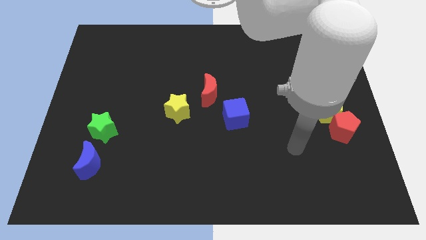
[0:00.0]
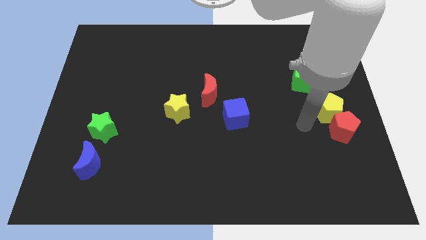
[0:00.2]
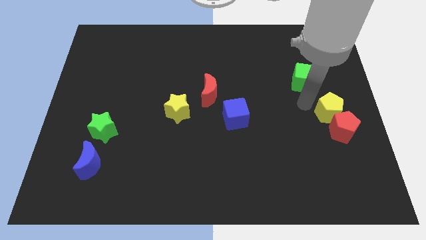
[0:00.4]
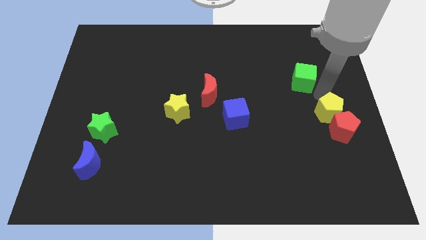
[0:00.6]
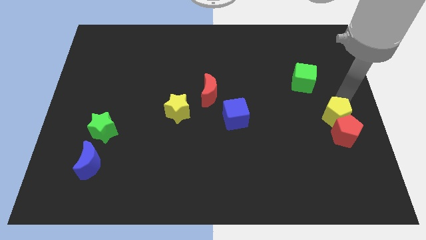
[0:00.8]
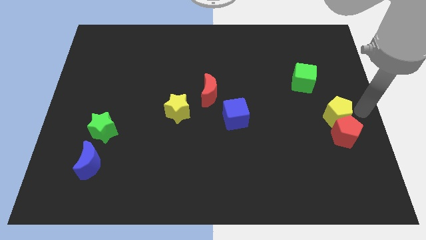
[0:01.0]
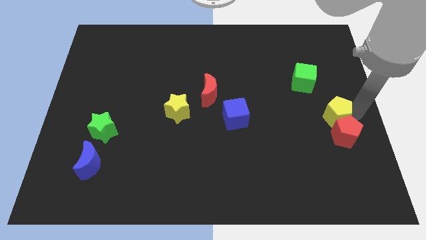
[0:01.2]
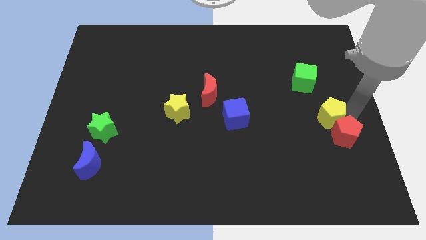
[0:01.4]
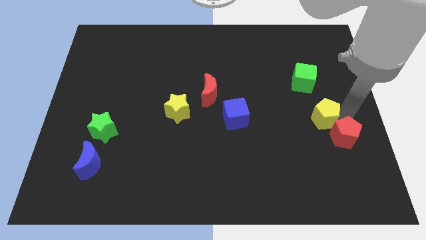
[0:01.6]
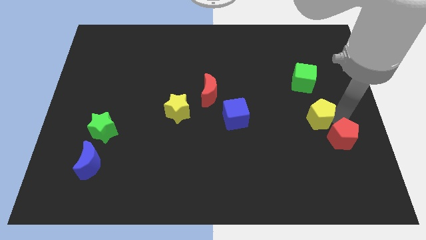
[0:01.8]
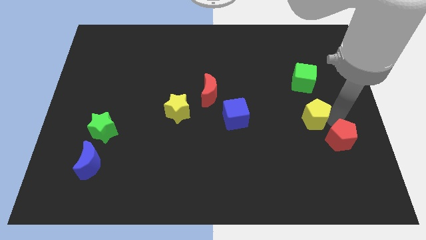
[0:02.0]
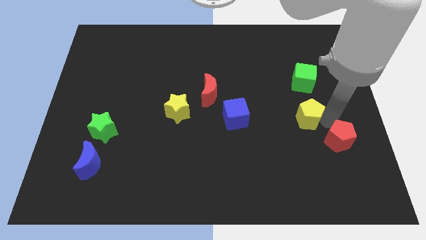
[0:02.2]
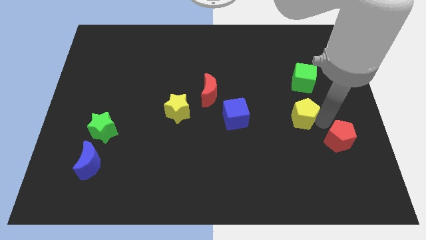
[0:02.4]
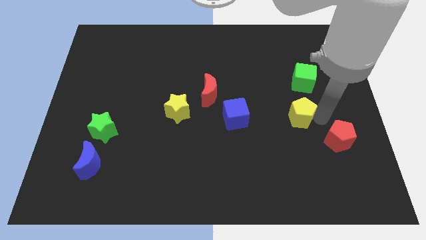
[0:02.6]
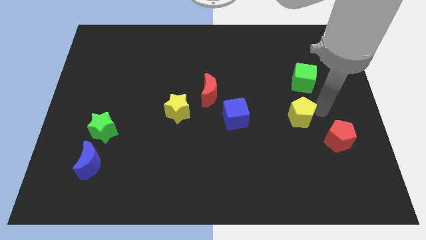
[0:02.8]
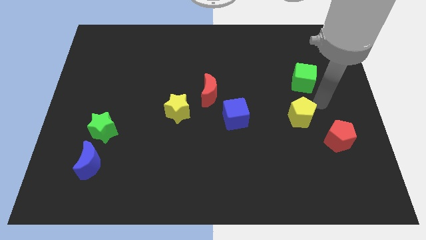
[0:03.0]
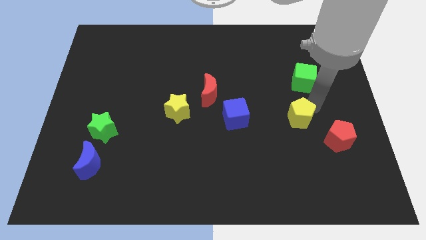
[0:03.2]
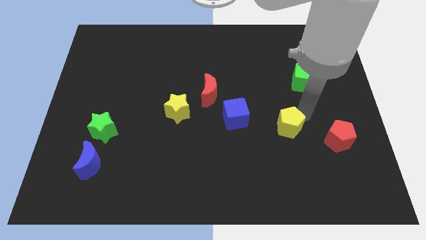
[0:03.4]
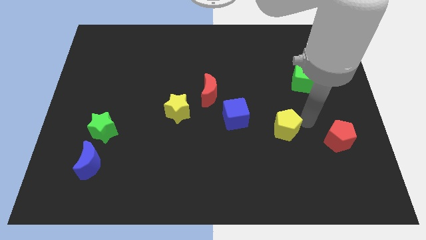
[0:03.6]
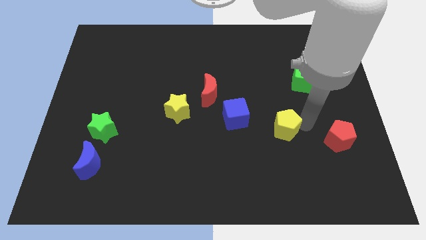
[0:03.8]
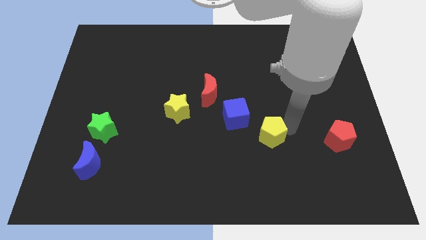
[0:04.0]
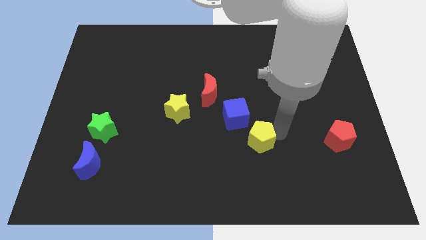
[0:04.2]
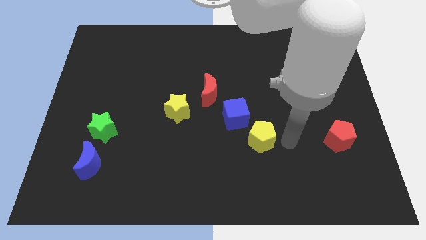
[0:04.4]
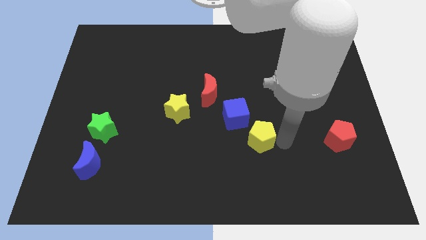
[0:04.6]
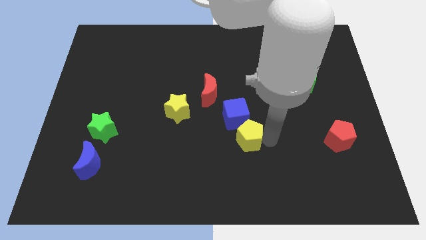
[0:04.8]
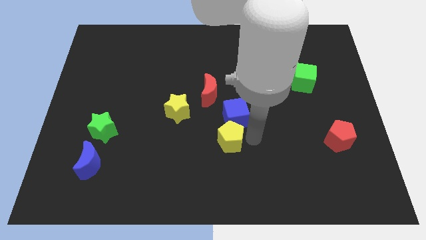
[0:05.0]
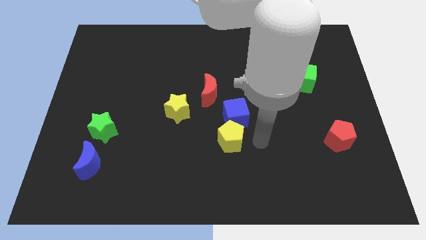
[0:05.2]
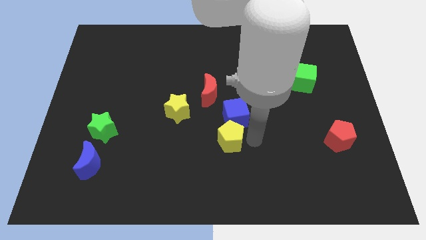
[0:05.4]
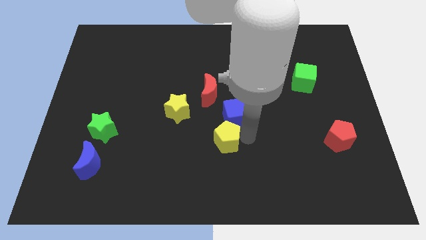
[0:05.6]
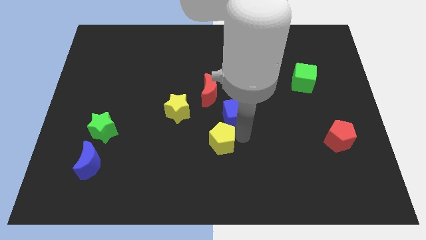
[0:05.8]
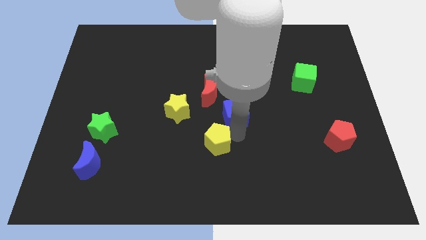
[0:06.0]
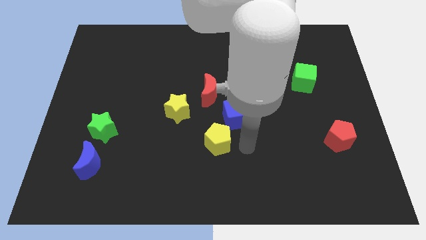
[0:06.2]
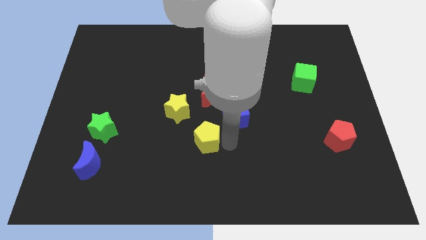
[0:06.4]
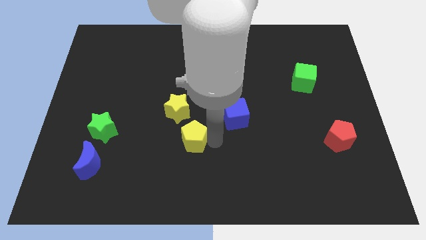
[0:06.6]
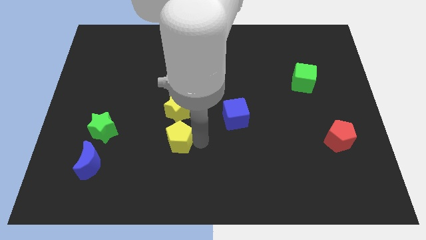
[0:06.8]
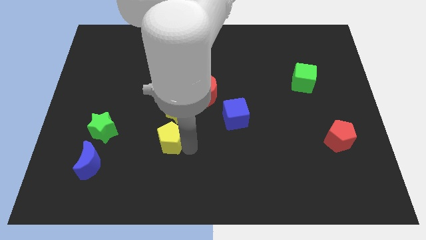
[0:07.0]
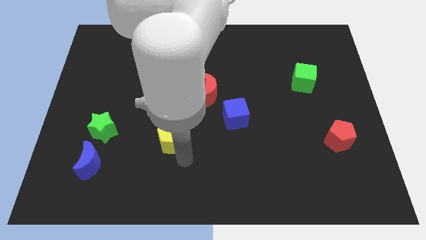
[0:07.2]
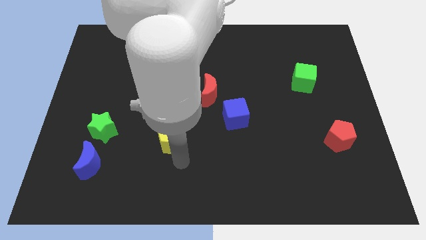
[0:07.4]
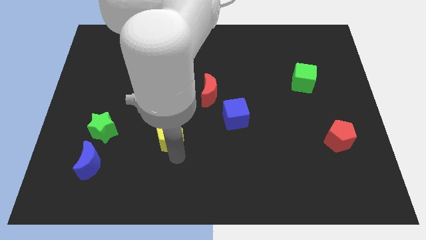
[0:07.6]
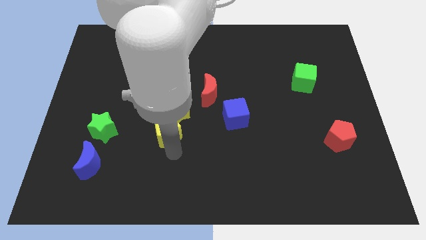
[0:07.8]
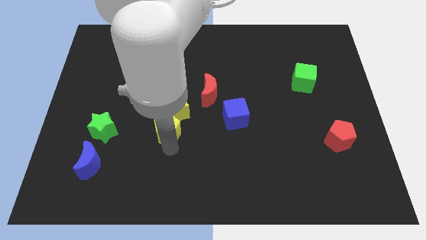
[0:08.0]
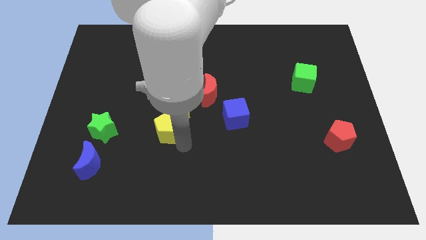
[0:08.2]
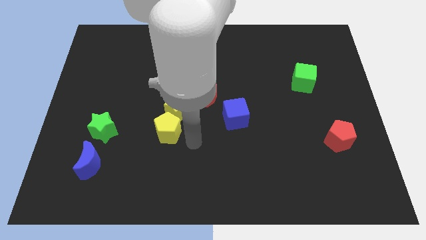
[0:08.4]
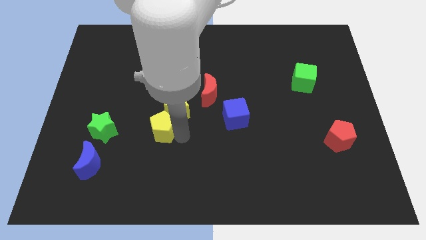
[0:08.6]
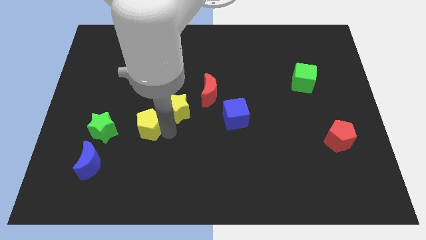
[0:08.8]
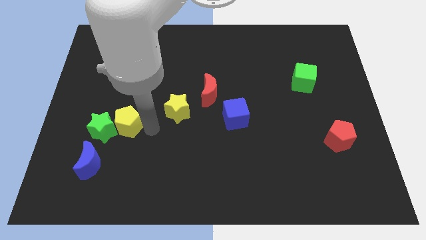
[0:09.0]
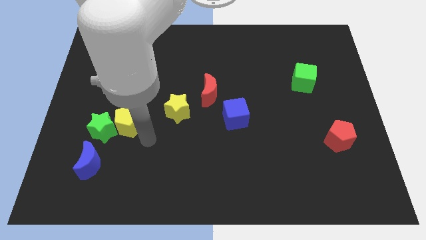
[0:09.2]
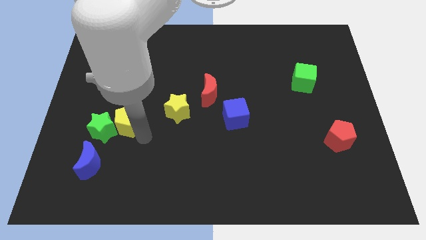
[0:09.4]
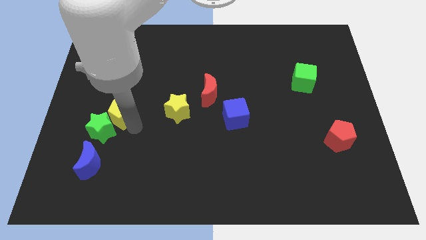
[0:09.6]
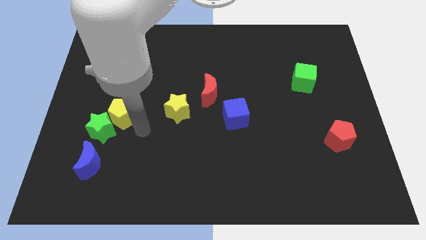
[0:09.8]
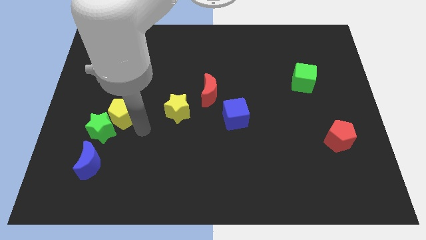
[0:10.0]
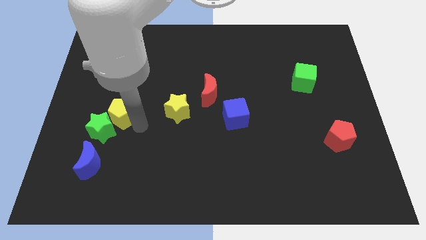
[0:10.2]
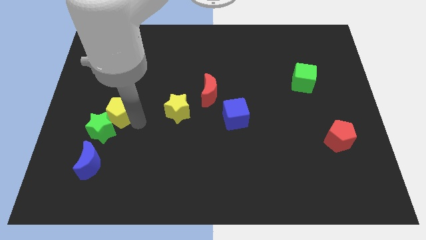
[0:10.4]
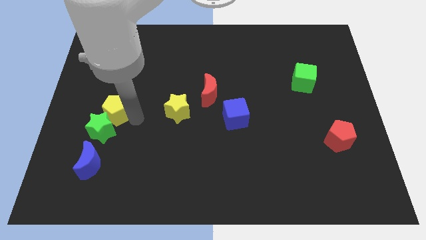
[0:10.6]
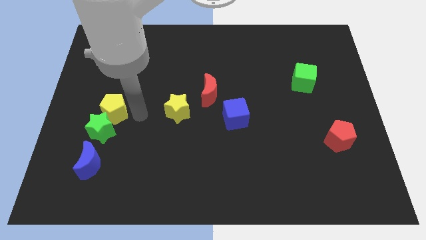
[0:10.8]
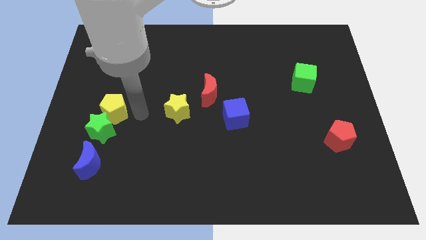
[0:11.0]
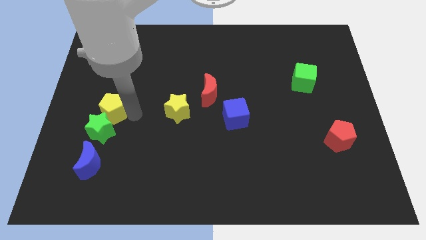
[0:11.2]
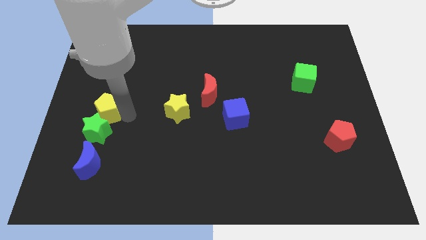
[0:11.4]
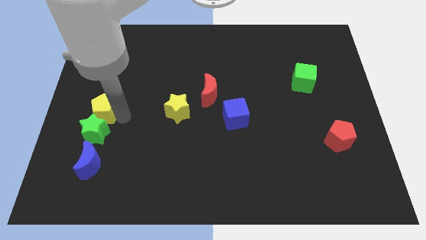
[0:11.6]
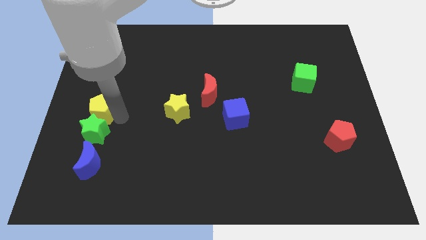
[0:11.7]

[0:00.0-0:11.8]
put the yellow pentagon to the left side
